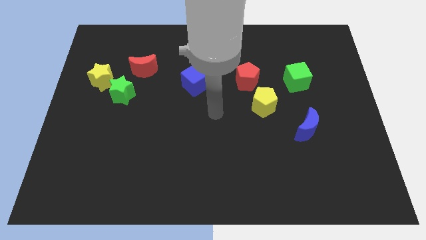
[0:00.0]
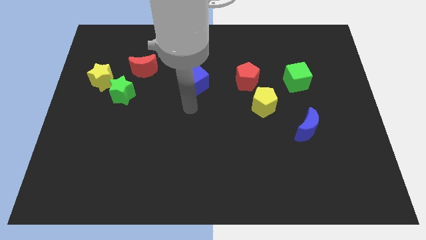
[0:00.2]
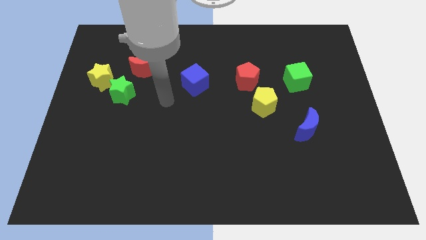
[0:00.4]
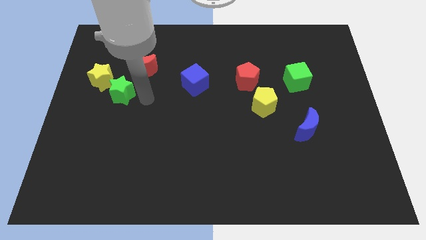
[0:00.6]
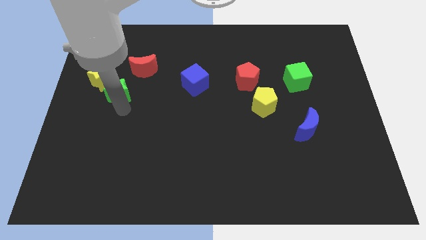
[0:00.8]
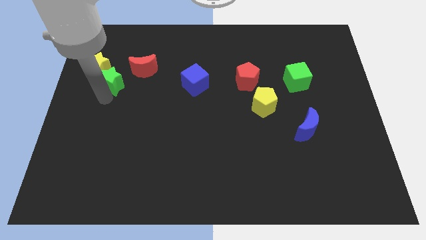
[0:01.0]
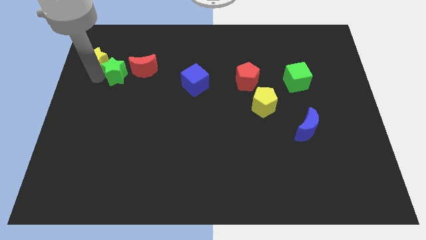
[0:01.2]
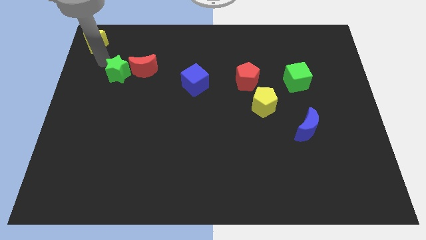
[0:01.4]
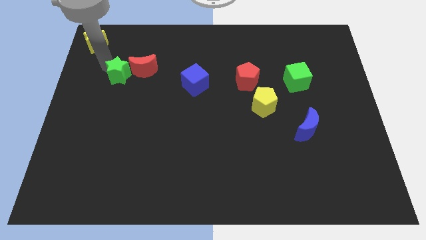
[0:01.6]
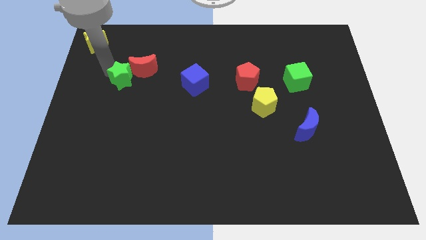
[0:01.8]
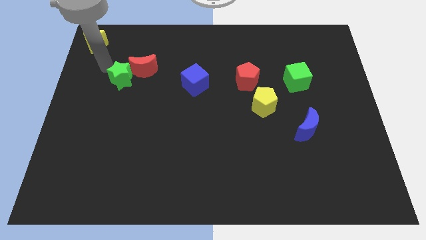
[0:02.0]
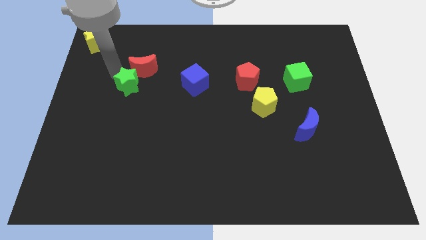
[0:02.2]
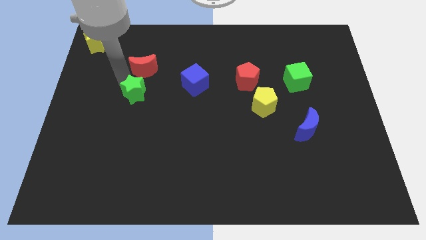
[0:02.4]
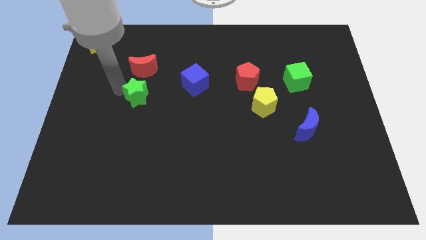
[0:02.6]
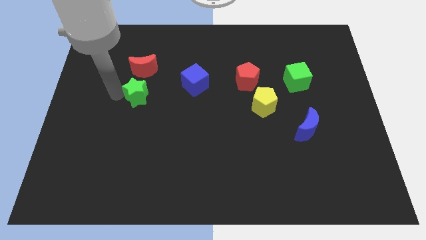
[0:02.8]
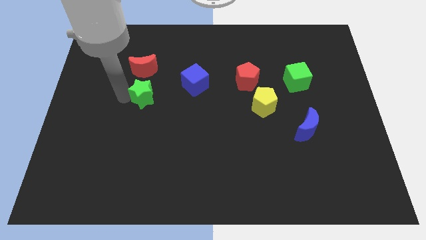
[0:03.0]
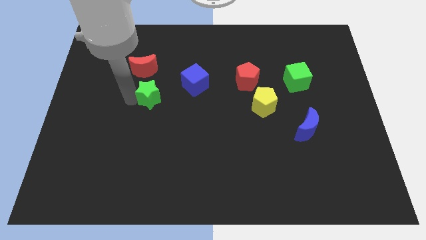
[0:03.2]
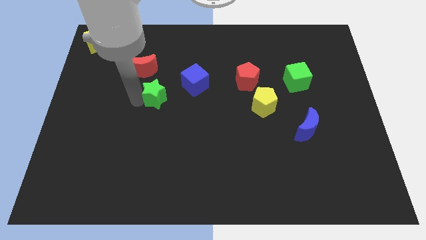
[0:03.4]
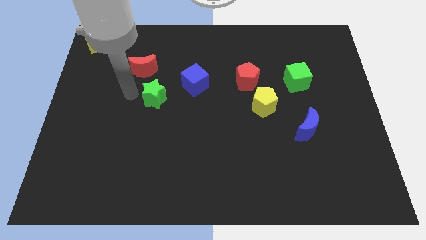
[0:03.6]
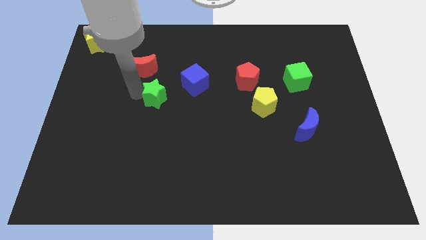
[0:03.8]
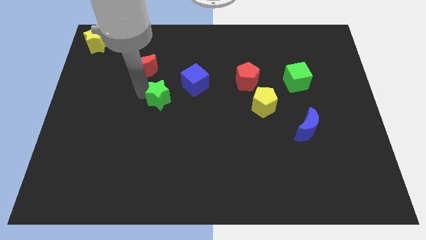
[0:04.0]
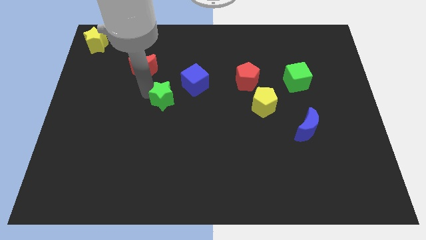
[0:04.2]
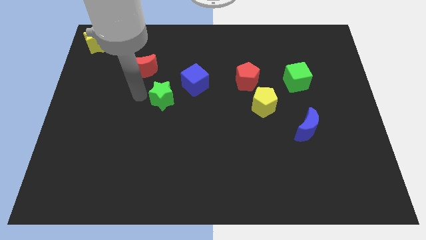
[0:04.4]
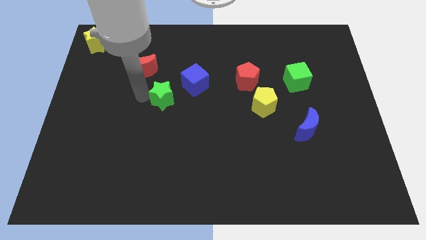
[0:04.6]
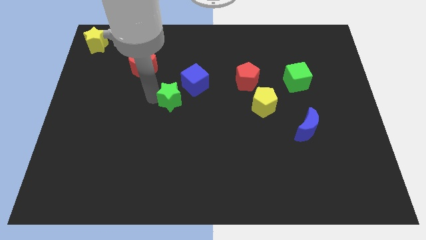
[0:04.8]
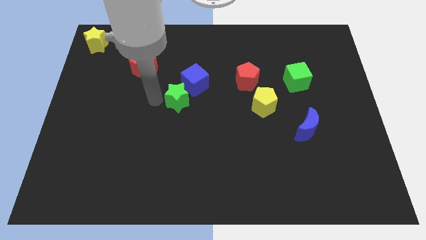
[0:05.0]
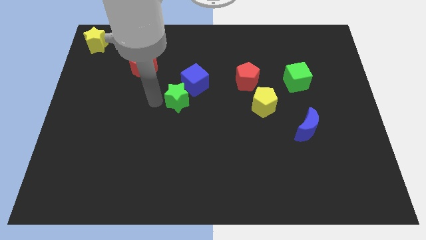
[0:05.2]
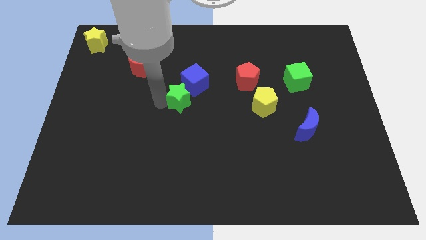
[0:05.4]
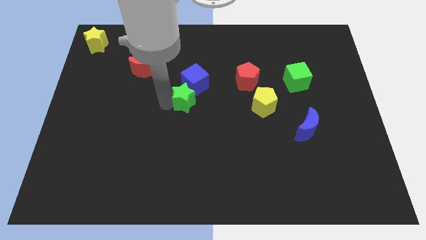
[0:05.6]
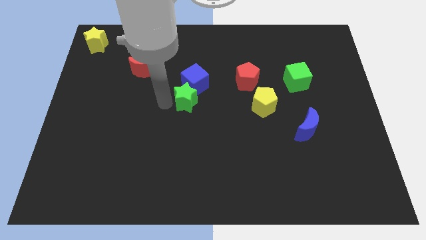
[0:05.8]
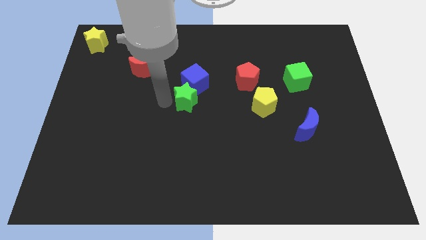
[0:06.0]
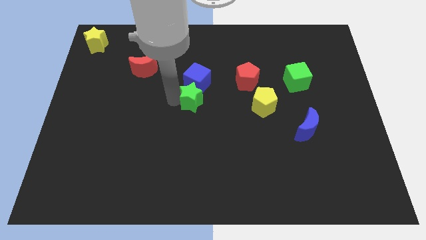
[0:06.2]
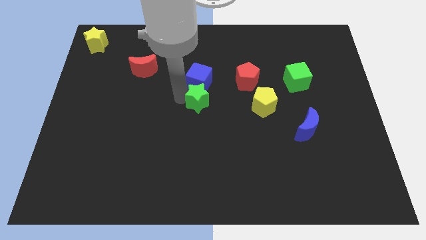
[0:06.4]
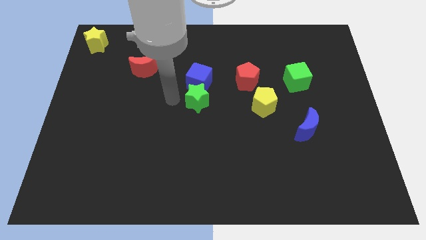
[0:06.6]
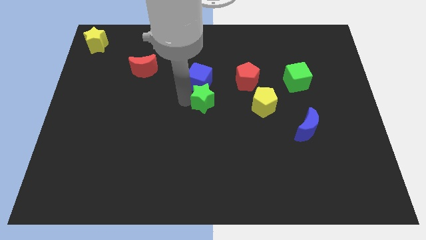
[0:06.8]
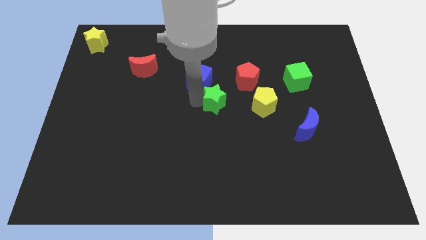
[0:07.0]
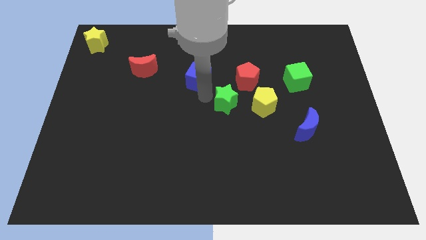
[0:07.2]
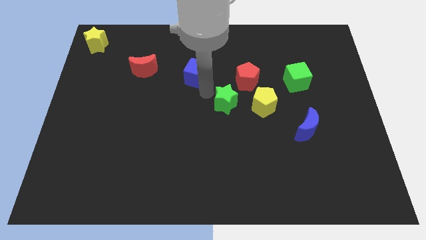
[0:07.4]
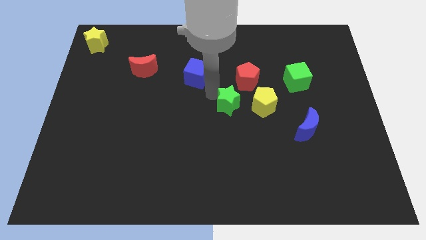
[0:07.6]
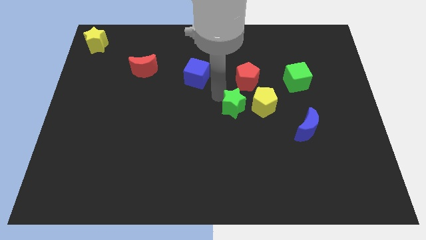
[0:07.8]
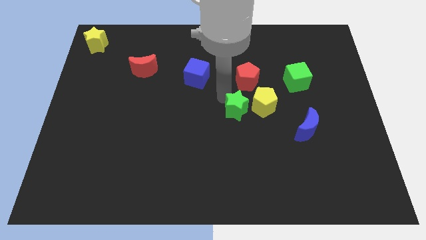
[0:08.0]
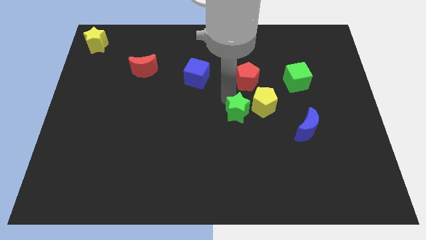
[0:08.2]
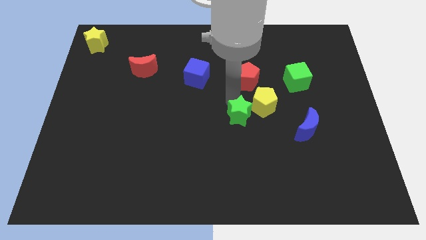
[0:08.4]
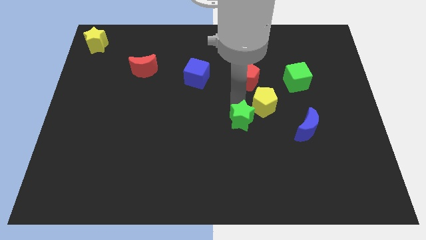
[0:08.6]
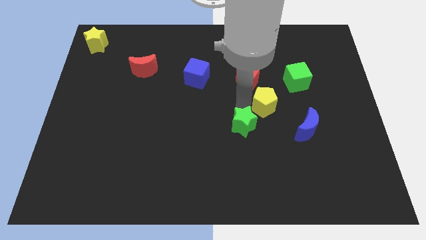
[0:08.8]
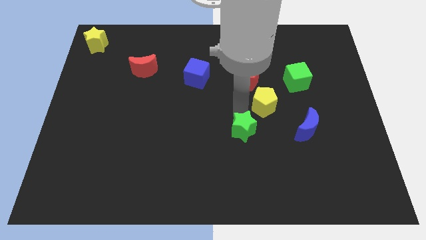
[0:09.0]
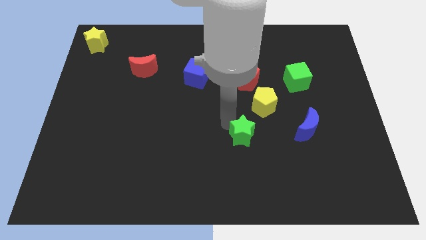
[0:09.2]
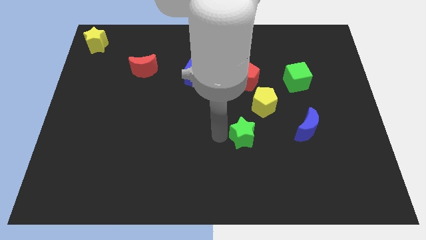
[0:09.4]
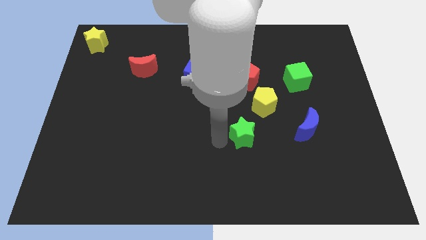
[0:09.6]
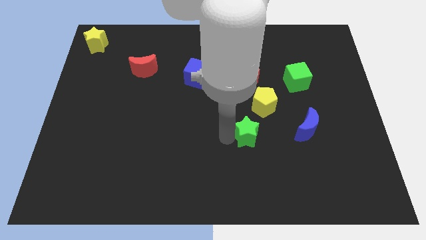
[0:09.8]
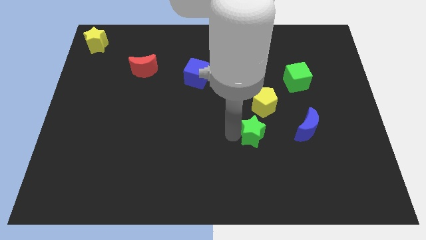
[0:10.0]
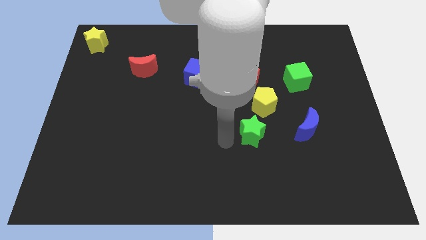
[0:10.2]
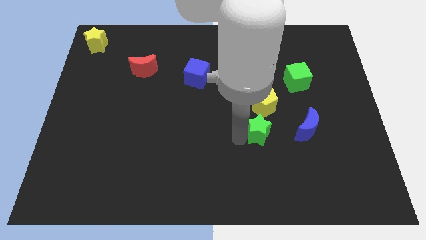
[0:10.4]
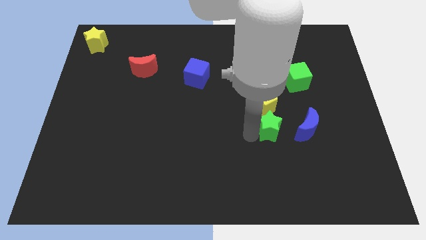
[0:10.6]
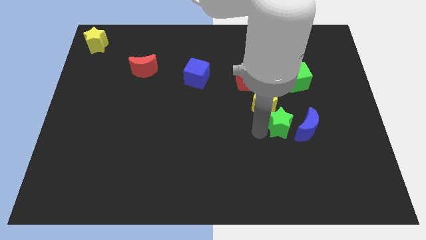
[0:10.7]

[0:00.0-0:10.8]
move the green star next to the blue moon

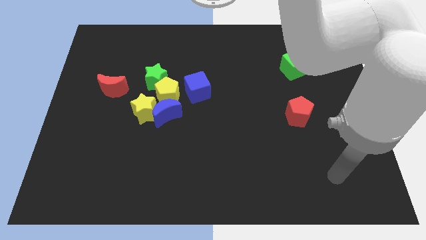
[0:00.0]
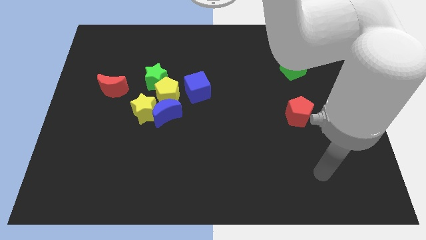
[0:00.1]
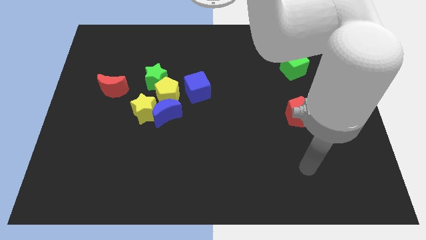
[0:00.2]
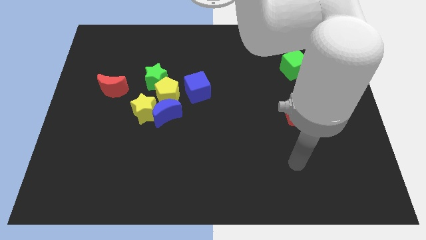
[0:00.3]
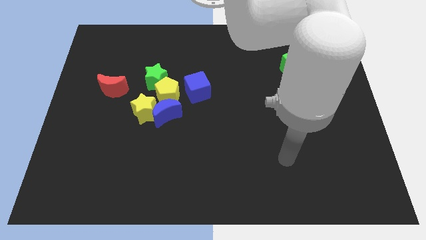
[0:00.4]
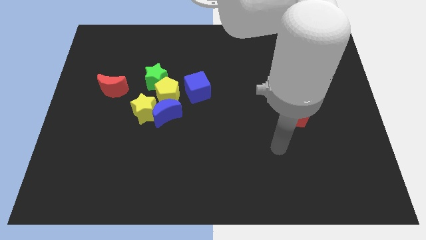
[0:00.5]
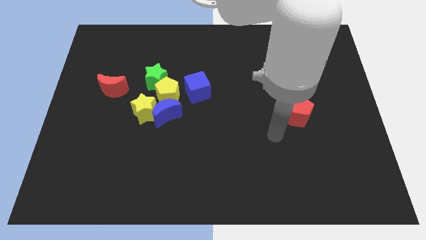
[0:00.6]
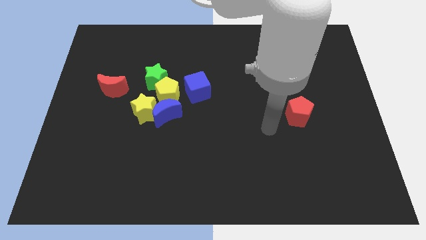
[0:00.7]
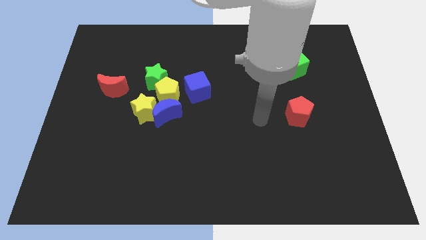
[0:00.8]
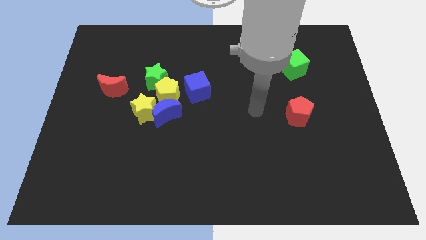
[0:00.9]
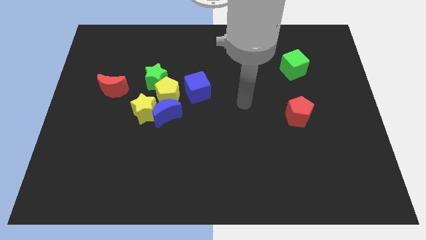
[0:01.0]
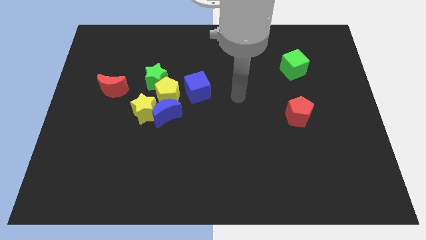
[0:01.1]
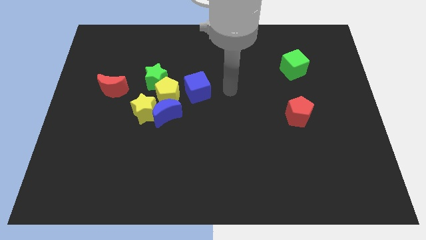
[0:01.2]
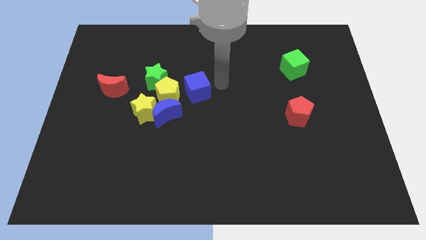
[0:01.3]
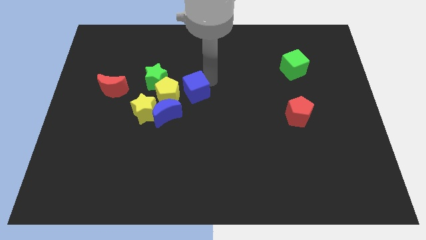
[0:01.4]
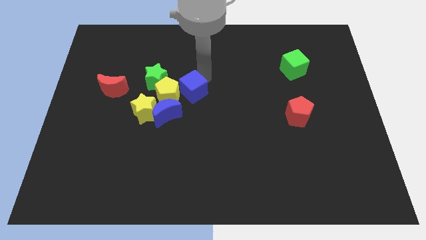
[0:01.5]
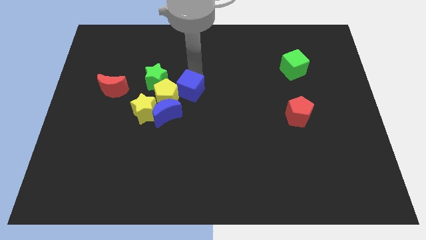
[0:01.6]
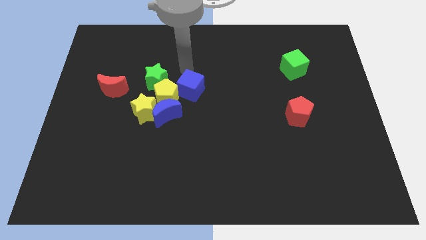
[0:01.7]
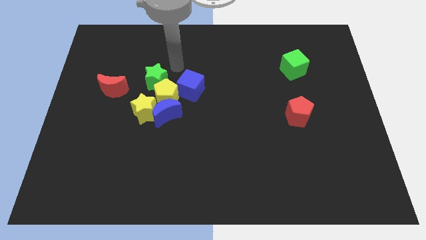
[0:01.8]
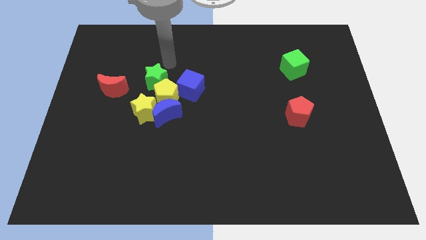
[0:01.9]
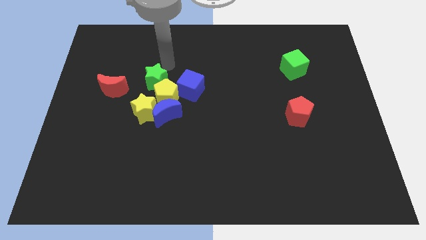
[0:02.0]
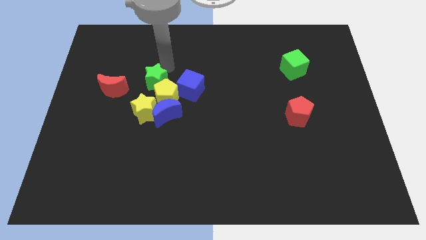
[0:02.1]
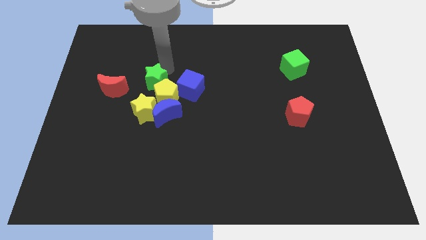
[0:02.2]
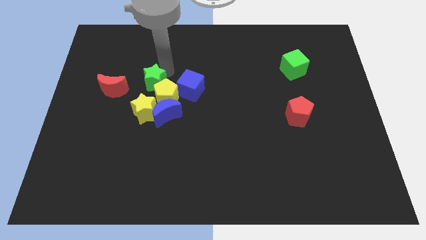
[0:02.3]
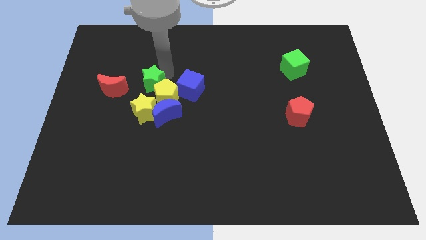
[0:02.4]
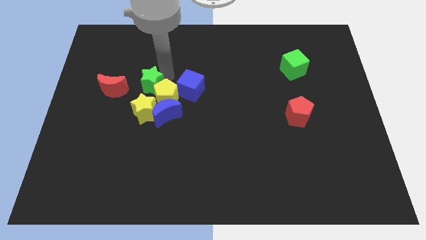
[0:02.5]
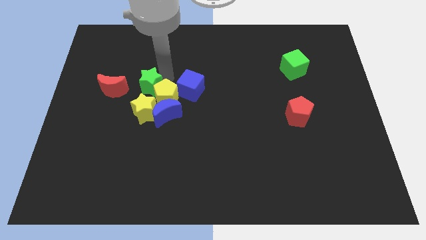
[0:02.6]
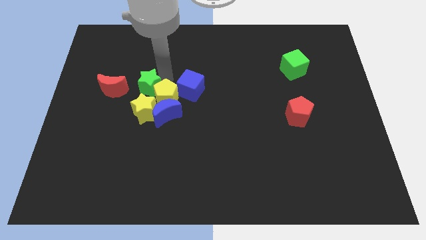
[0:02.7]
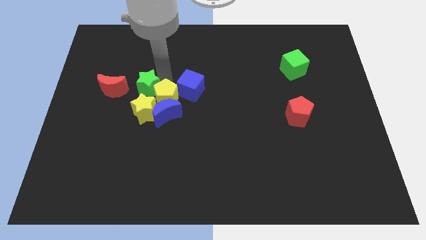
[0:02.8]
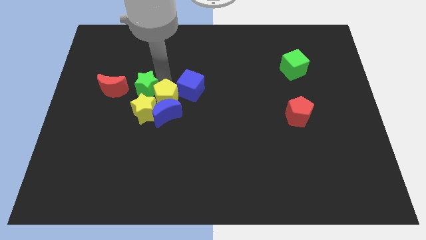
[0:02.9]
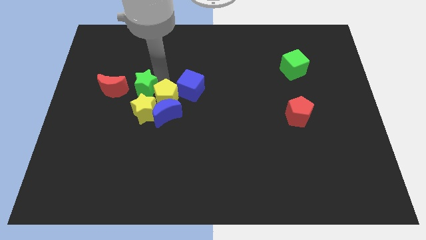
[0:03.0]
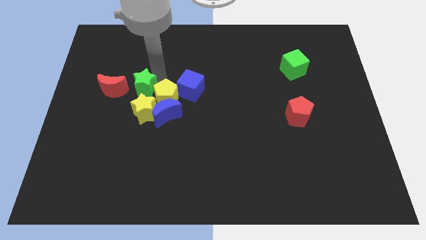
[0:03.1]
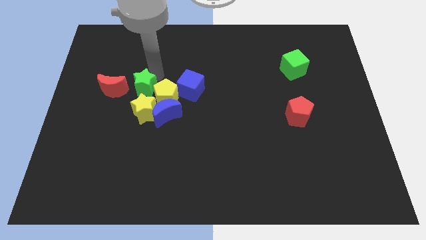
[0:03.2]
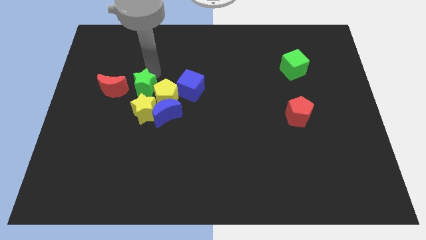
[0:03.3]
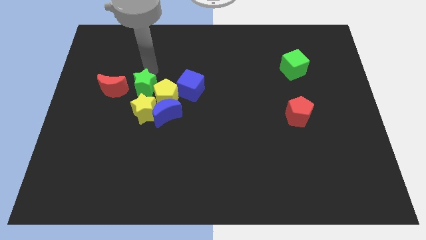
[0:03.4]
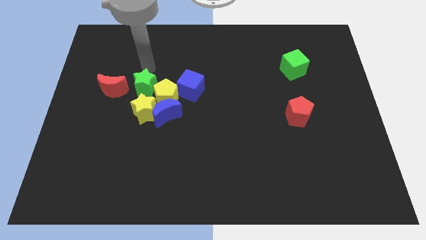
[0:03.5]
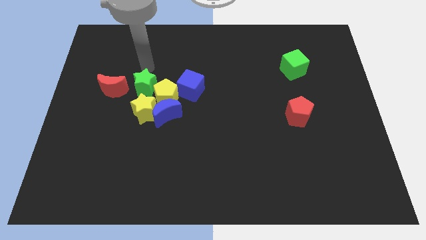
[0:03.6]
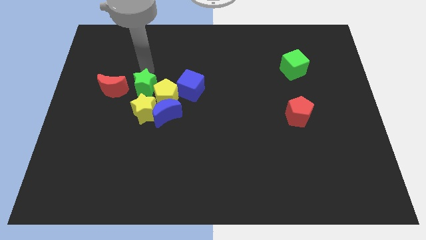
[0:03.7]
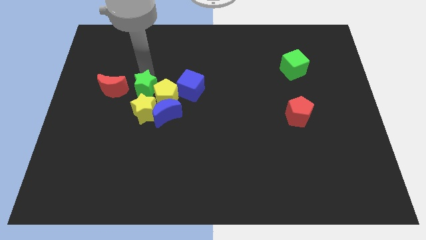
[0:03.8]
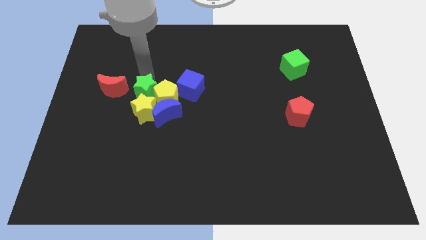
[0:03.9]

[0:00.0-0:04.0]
slide the green star next to the yellow star
